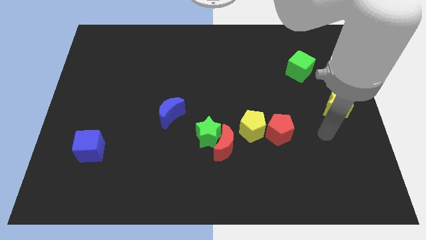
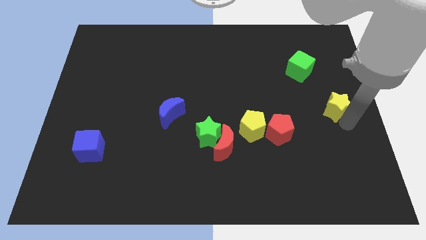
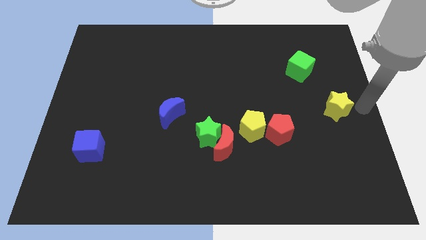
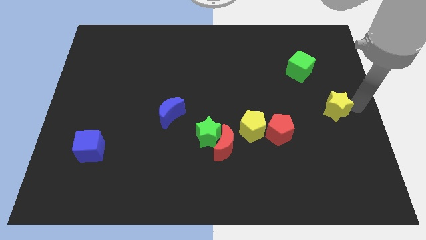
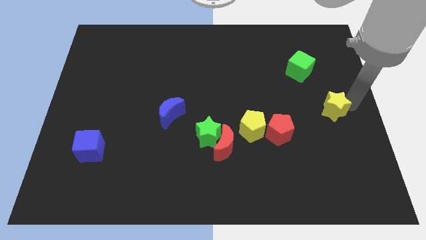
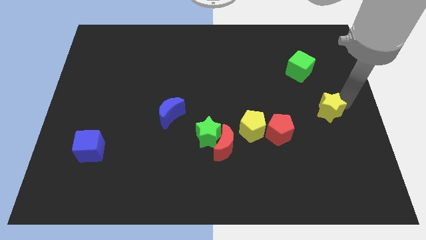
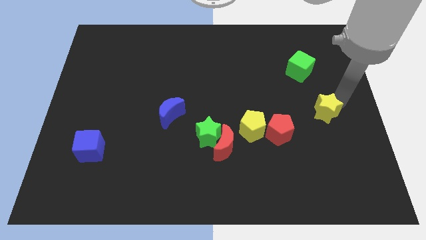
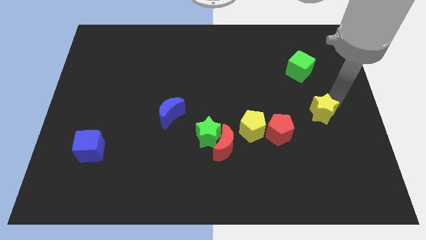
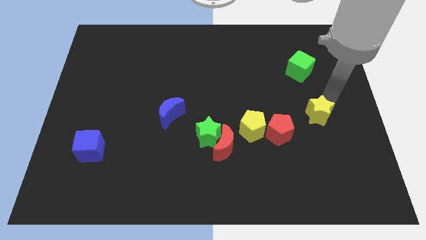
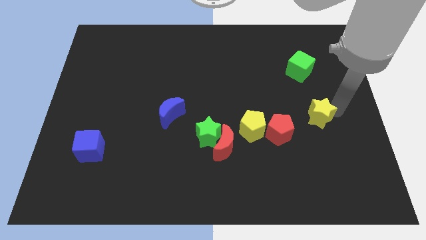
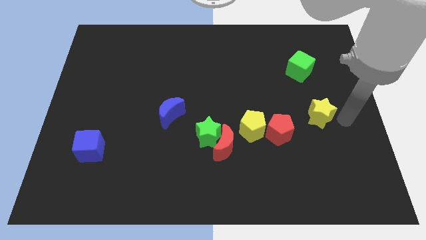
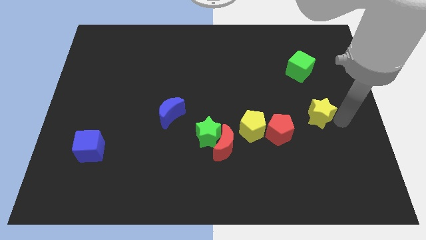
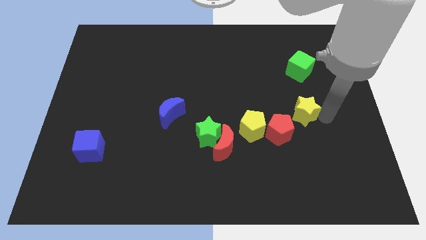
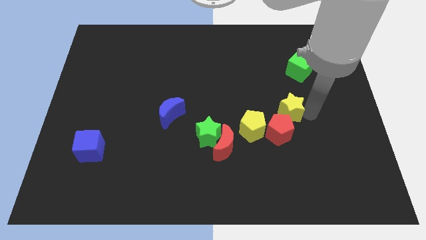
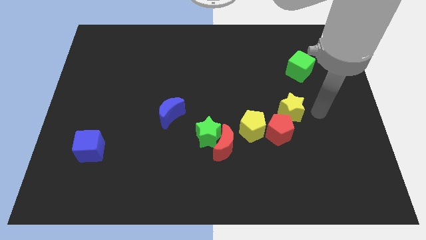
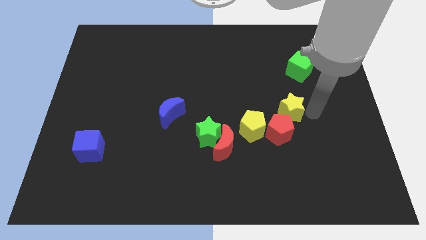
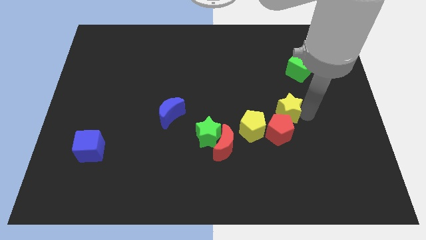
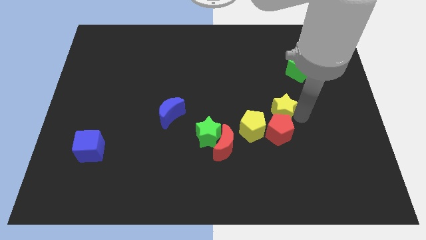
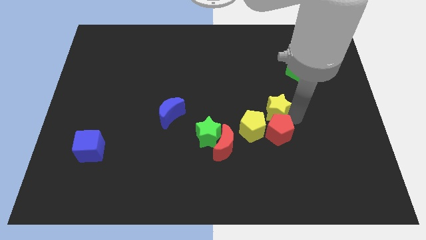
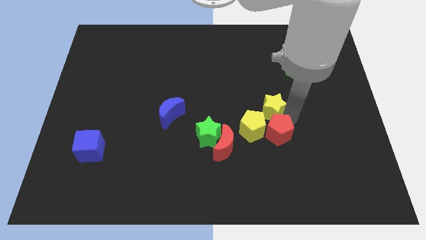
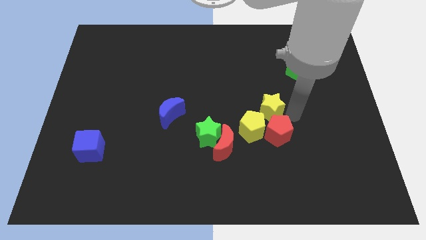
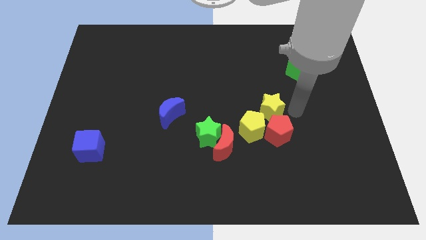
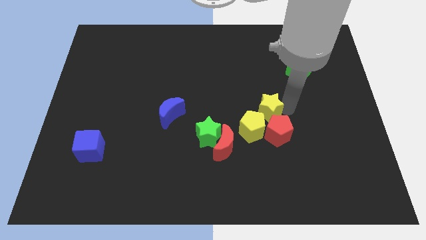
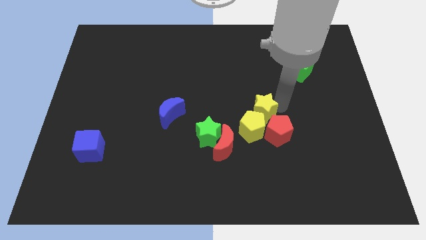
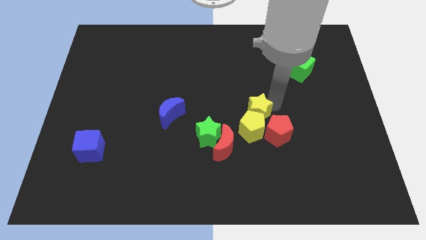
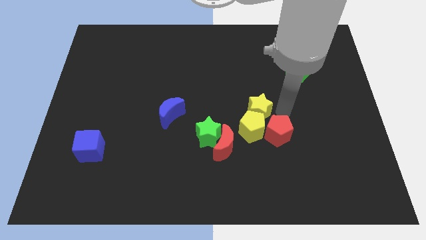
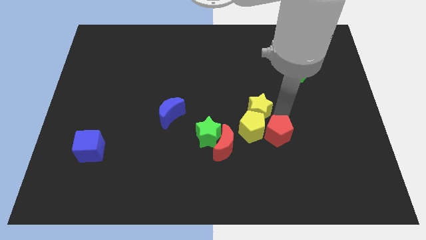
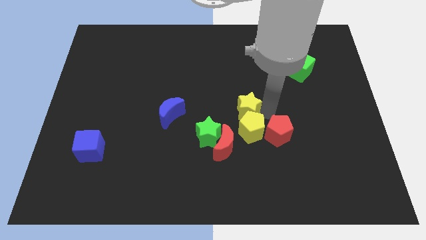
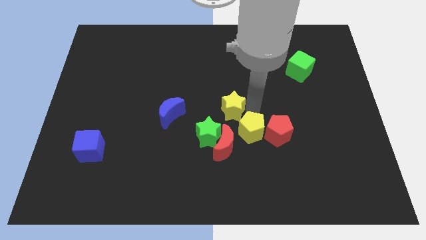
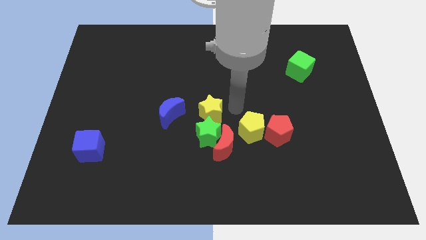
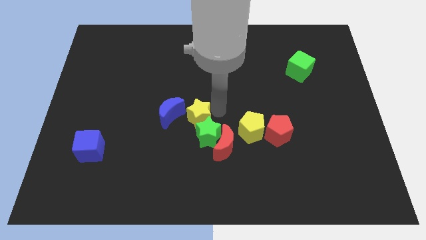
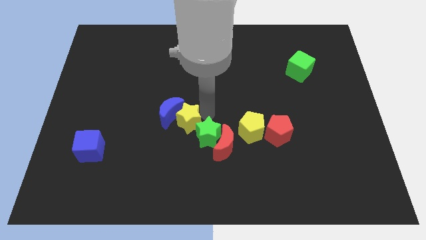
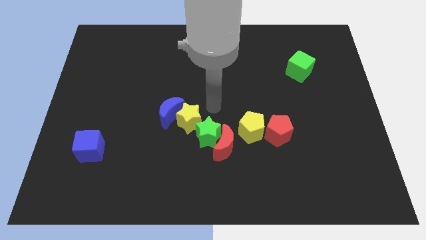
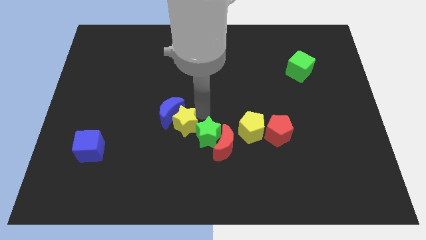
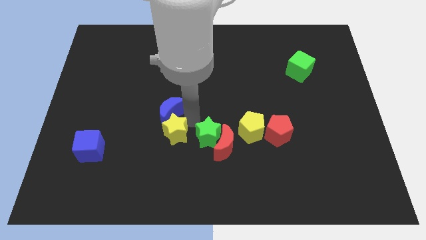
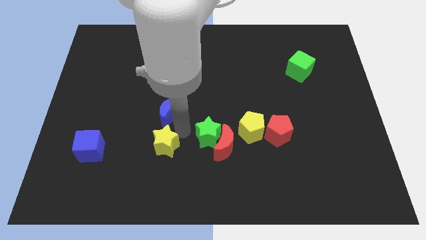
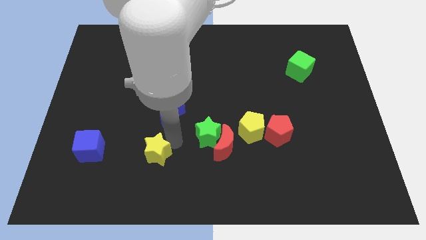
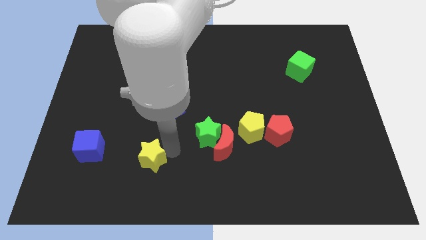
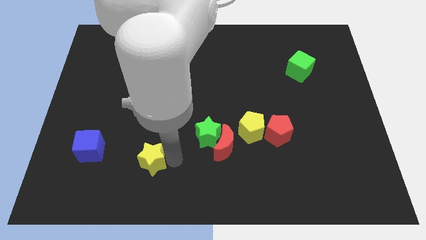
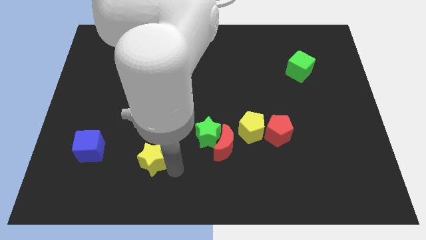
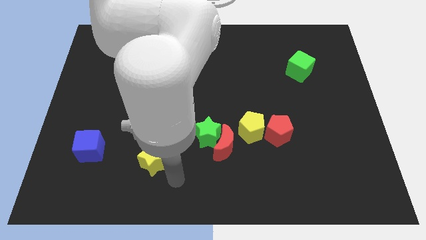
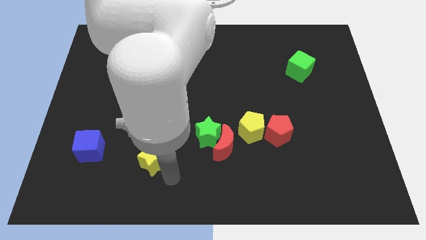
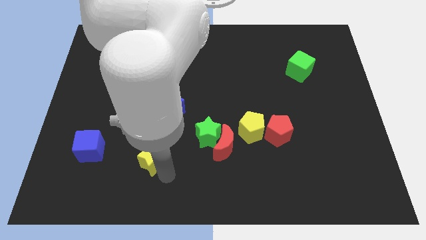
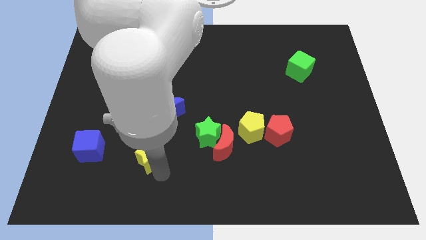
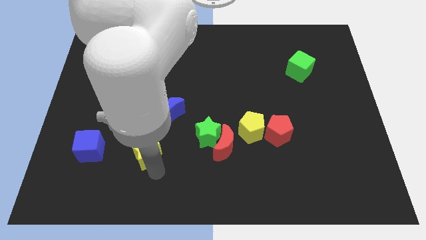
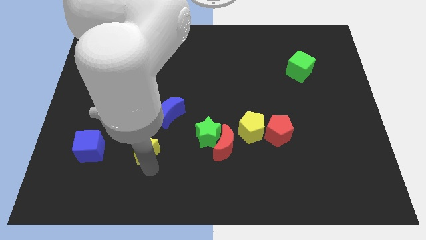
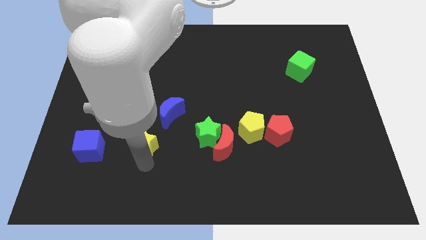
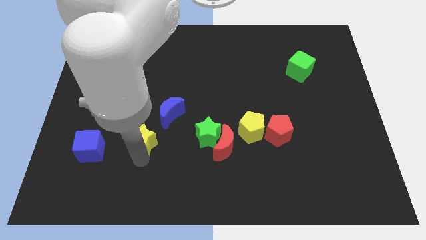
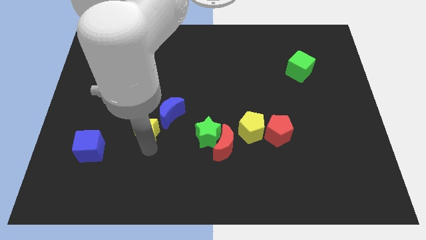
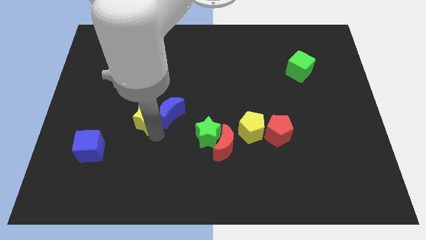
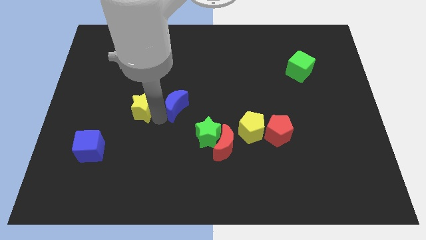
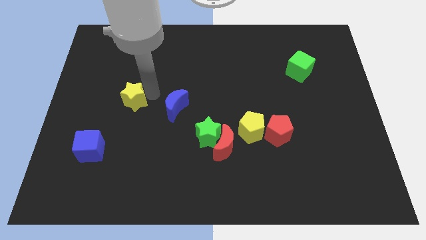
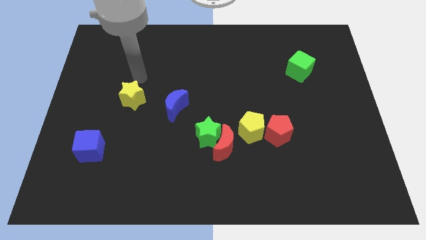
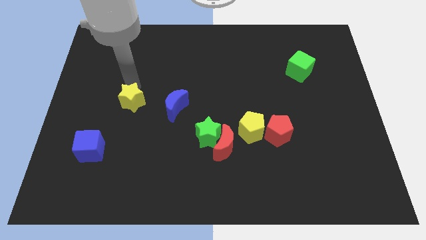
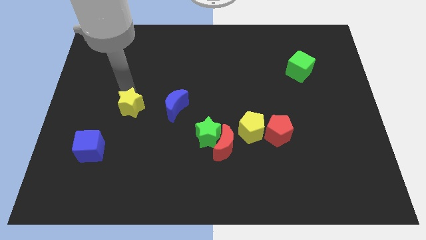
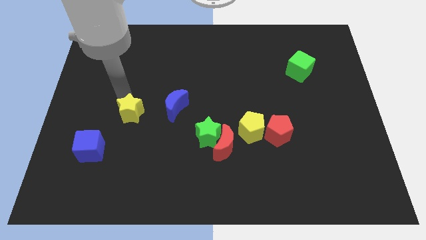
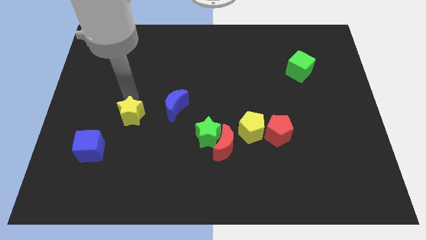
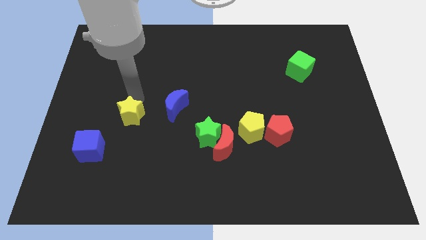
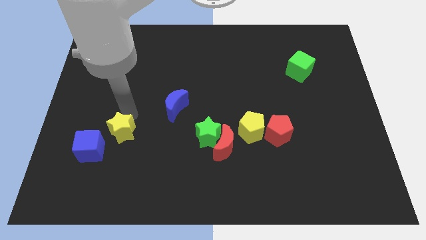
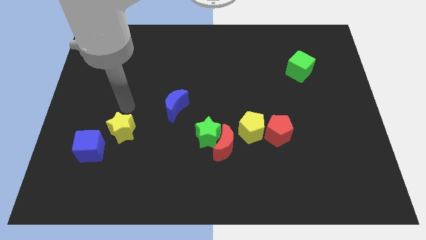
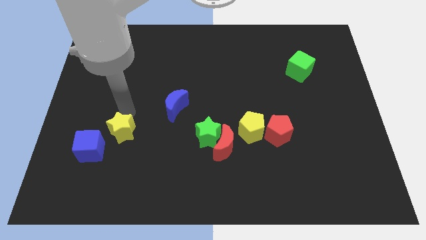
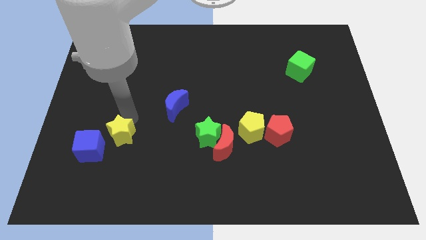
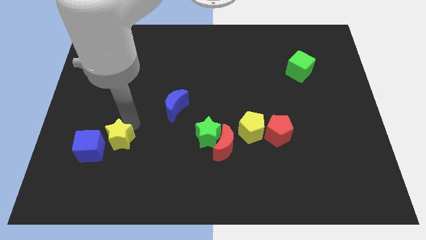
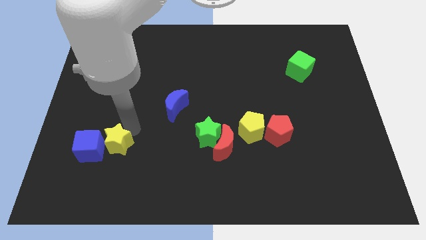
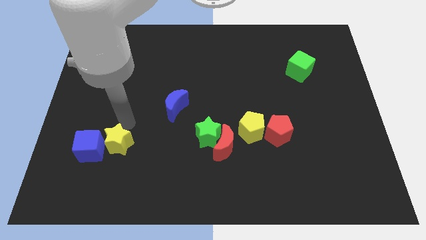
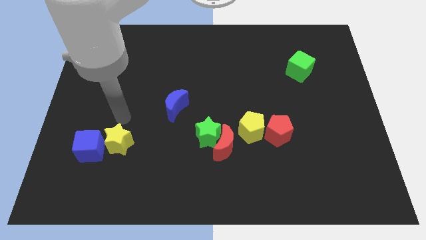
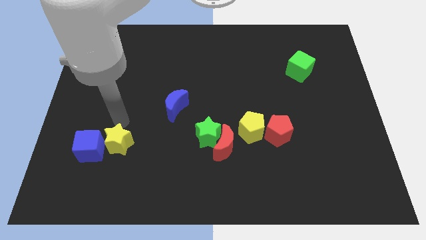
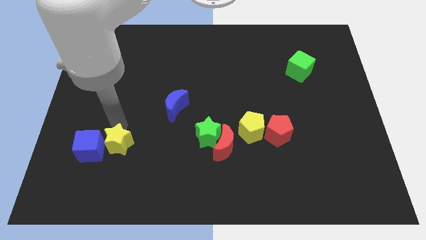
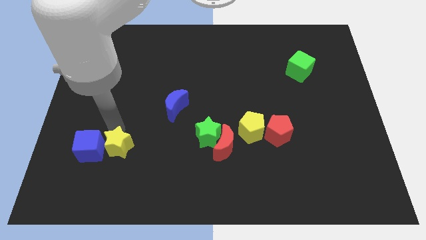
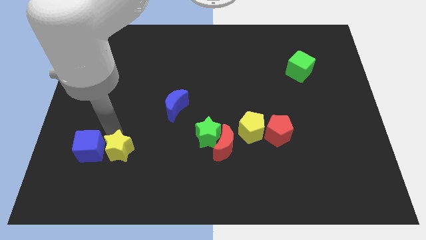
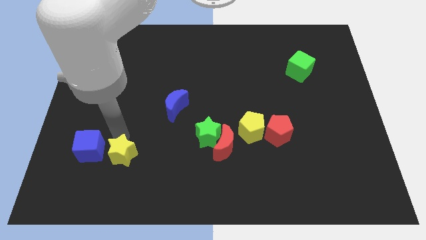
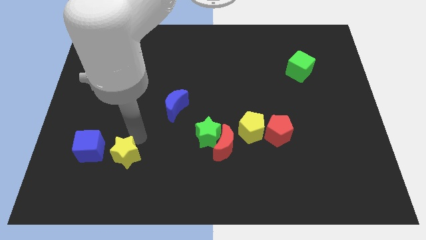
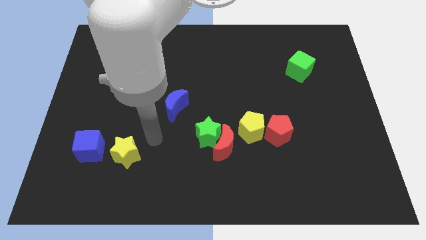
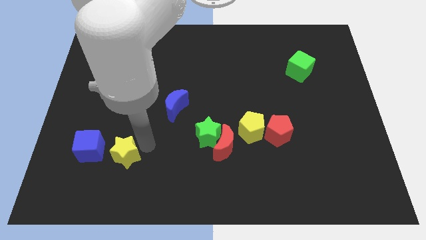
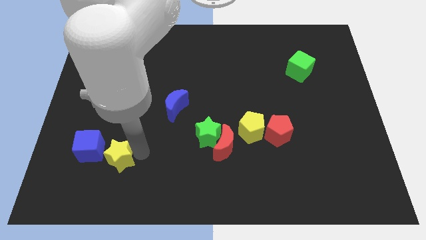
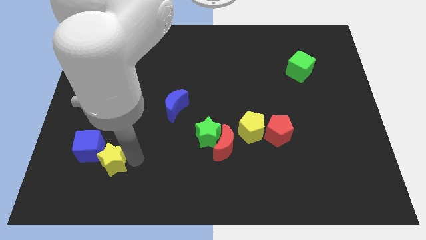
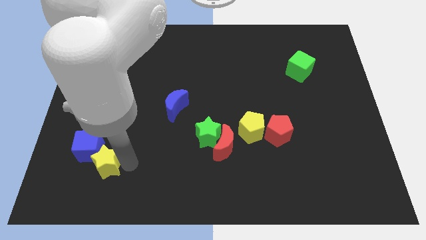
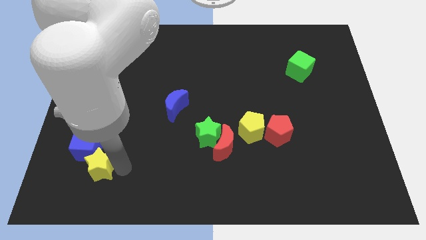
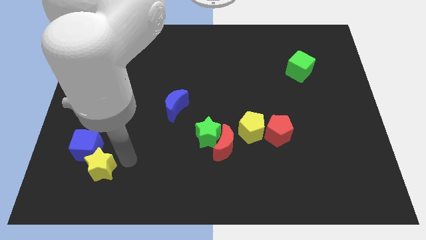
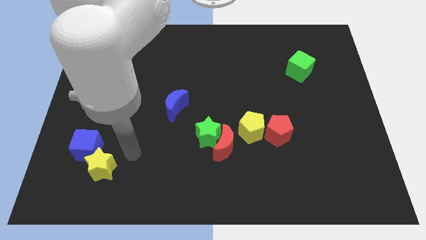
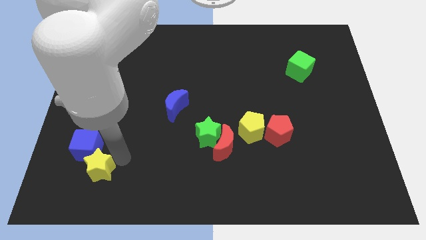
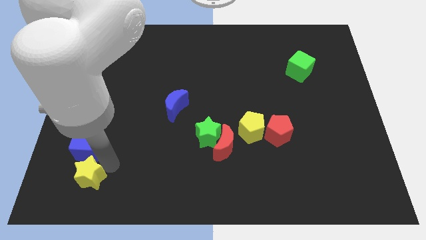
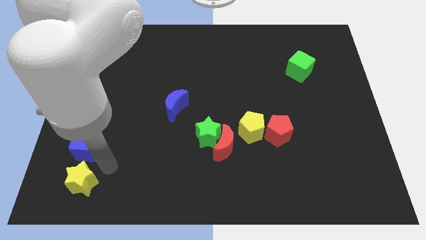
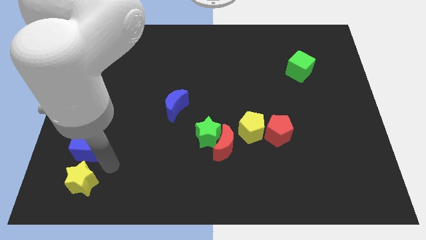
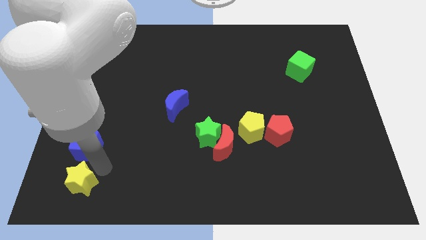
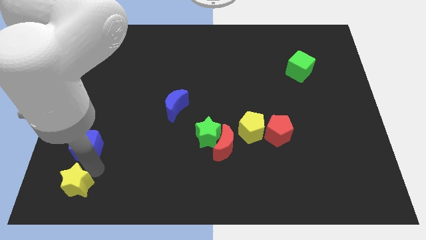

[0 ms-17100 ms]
push the yellow star to the bottom left
